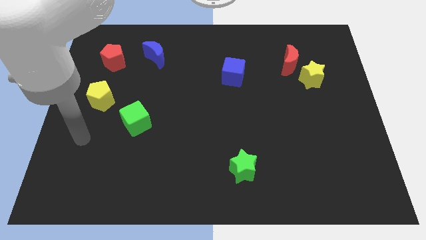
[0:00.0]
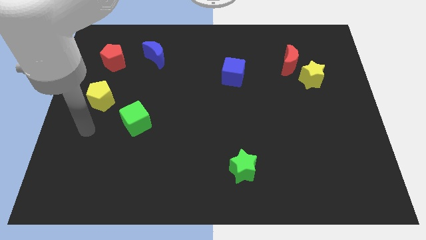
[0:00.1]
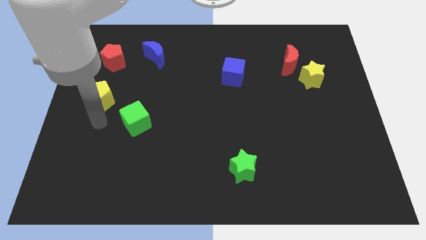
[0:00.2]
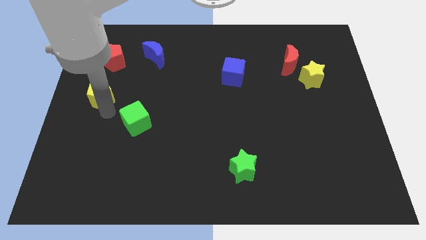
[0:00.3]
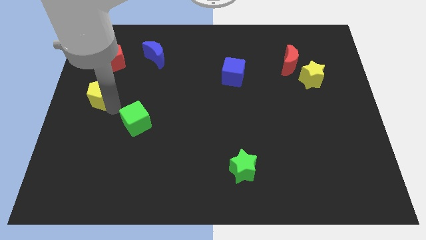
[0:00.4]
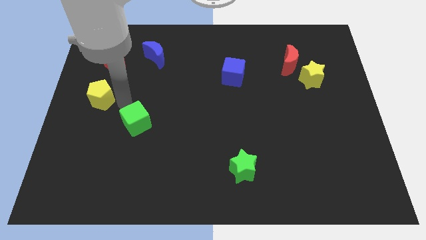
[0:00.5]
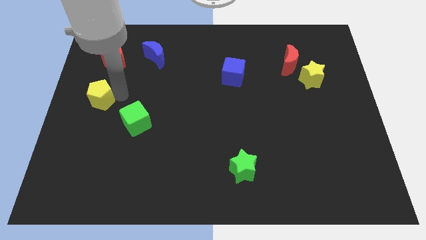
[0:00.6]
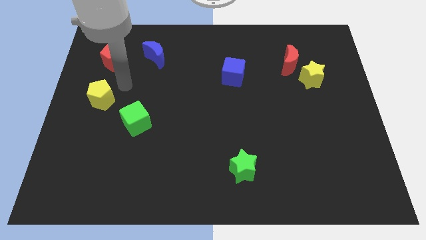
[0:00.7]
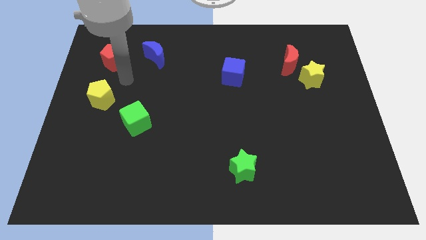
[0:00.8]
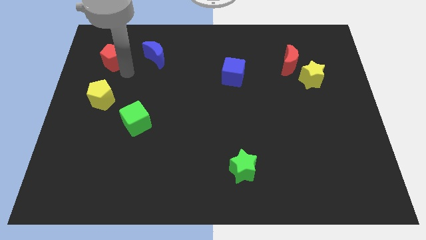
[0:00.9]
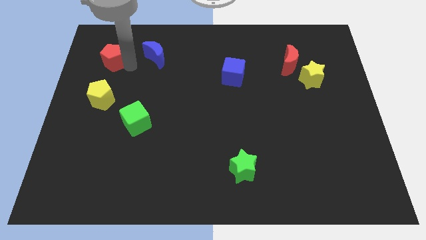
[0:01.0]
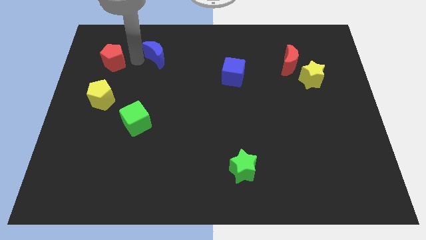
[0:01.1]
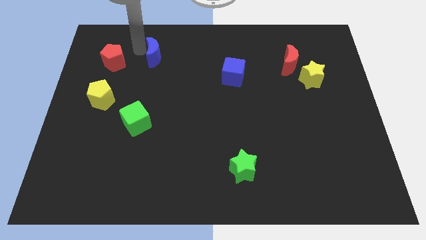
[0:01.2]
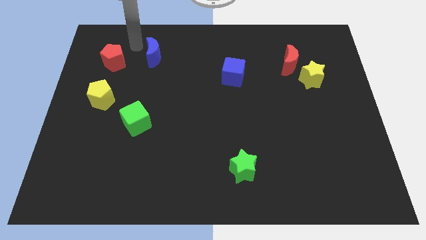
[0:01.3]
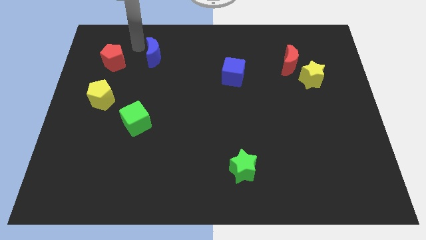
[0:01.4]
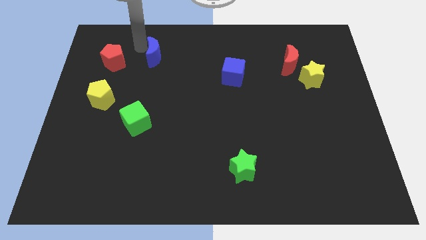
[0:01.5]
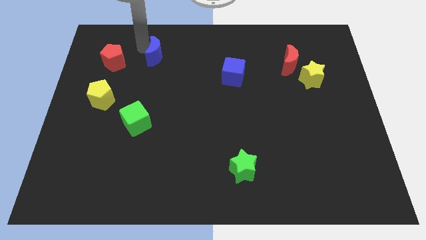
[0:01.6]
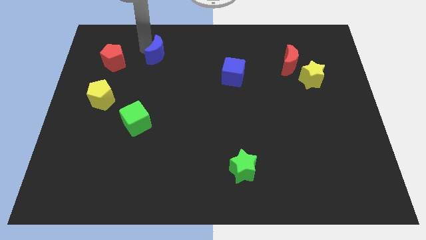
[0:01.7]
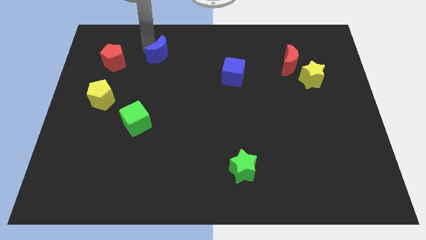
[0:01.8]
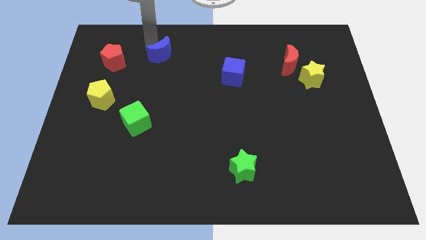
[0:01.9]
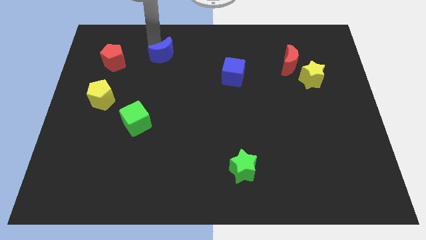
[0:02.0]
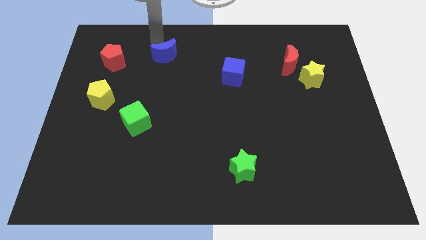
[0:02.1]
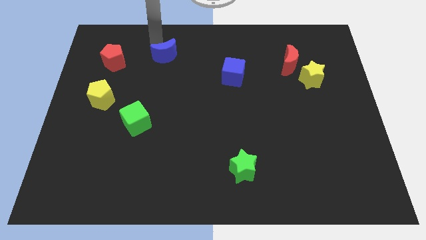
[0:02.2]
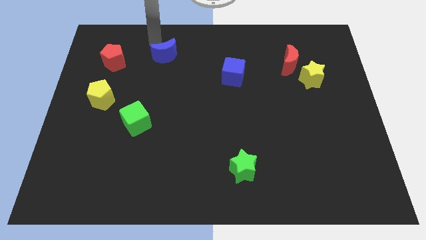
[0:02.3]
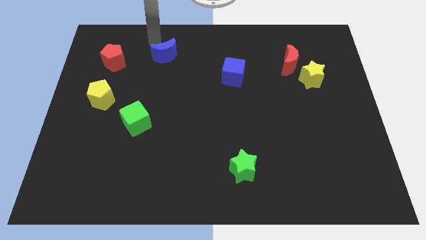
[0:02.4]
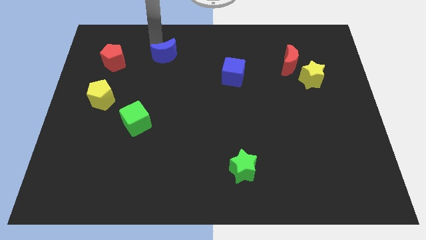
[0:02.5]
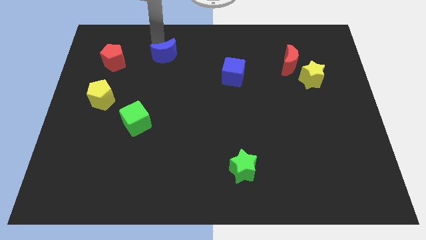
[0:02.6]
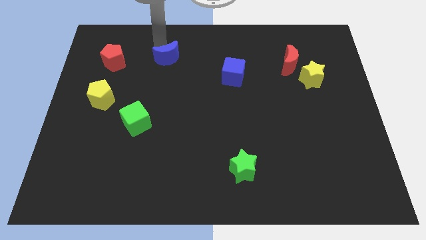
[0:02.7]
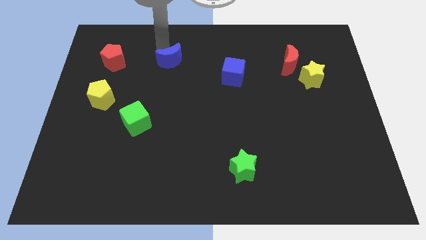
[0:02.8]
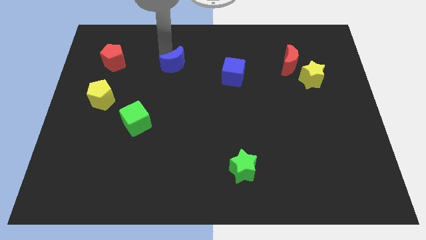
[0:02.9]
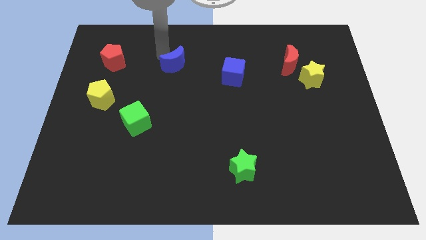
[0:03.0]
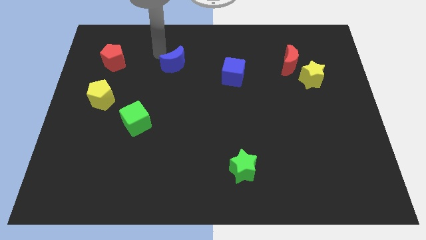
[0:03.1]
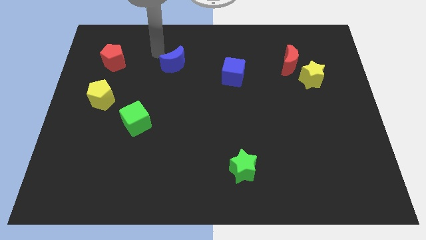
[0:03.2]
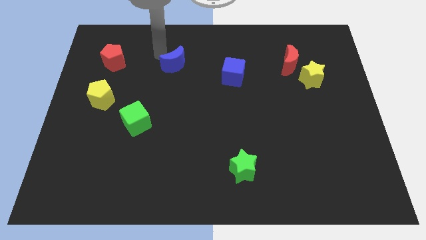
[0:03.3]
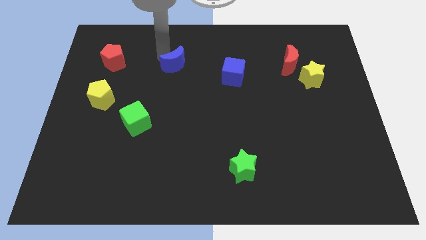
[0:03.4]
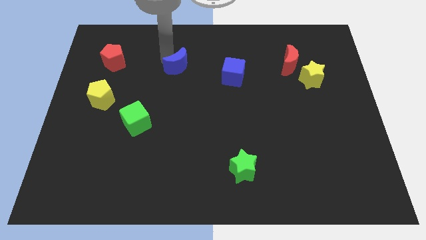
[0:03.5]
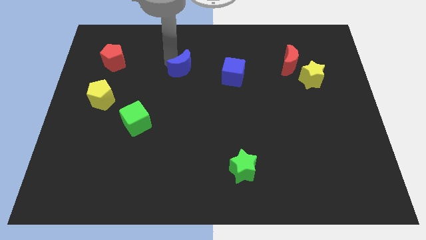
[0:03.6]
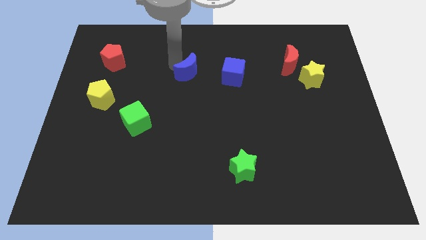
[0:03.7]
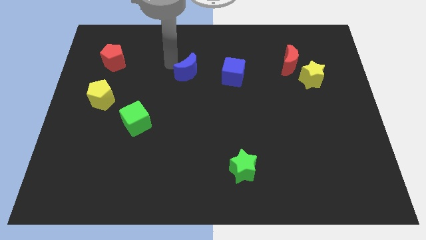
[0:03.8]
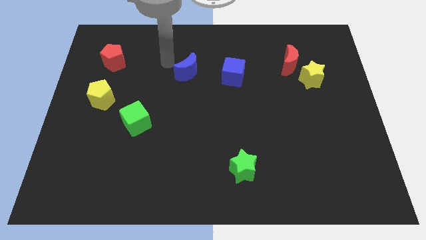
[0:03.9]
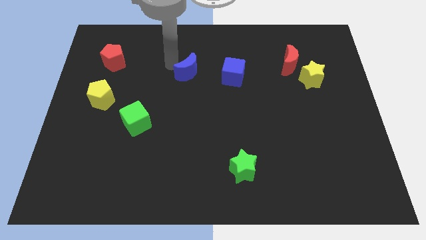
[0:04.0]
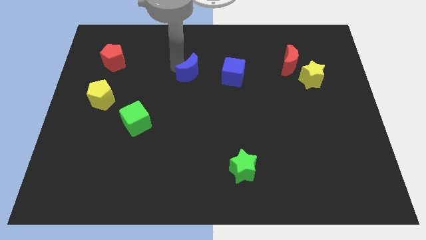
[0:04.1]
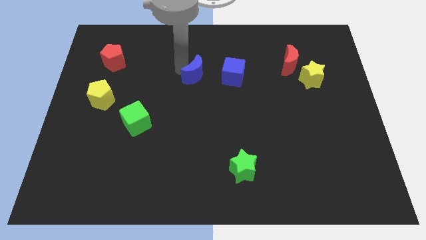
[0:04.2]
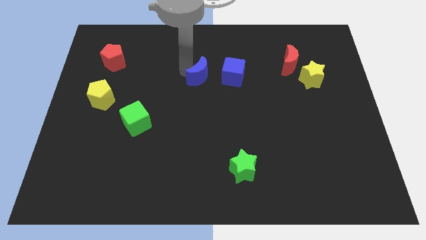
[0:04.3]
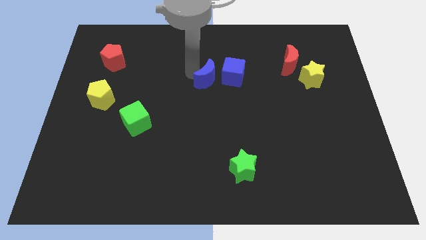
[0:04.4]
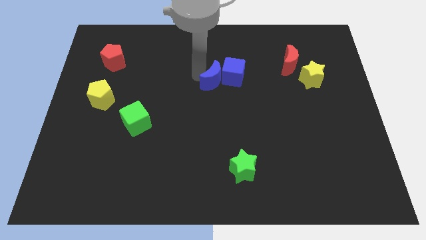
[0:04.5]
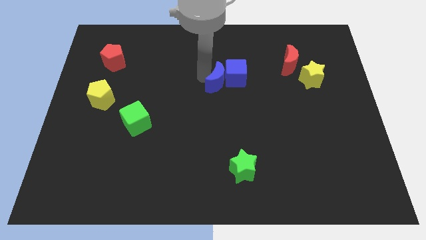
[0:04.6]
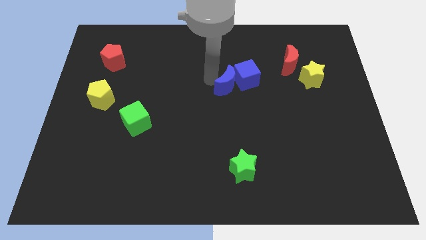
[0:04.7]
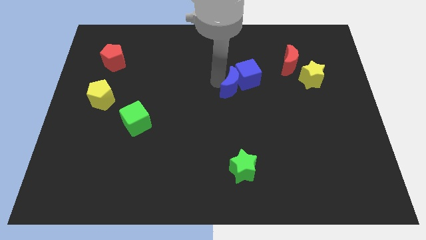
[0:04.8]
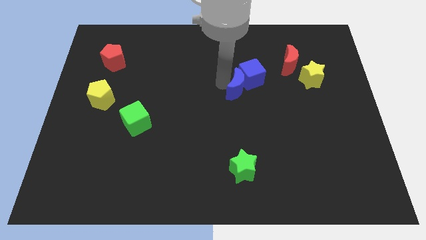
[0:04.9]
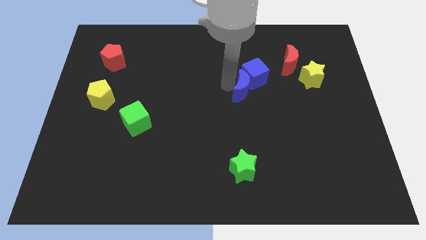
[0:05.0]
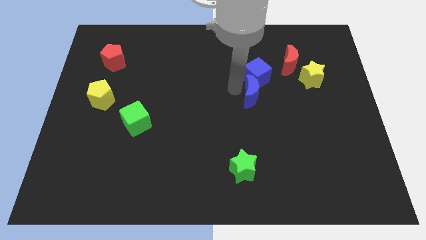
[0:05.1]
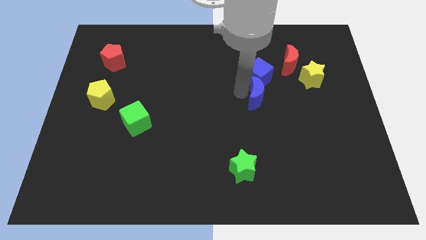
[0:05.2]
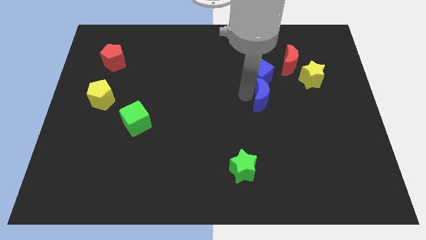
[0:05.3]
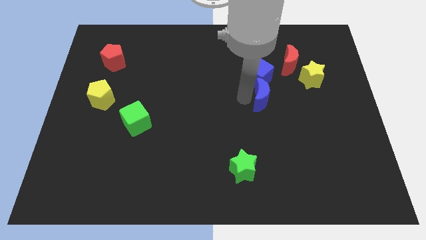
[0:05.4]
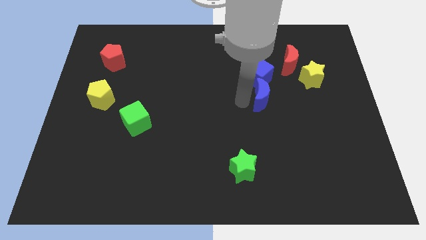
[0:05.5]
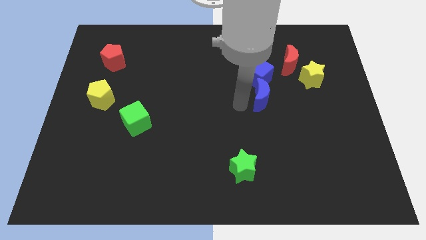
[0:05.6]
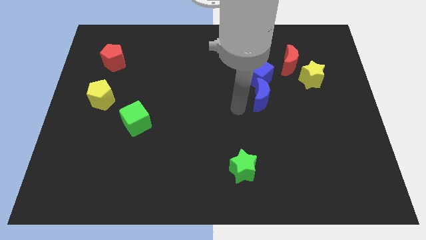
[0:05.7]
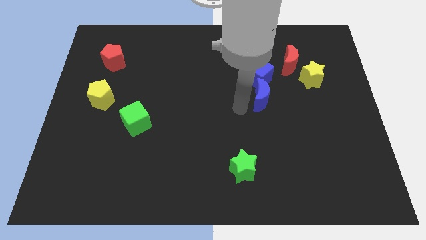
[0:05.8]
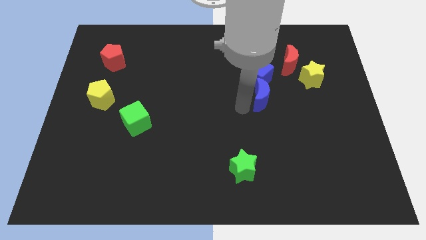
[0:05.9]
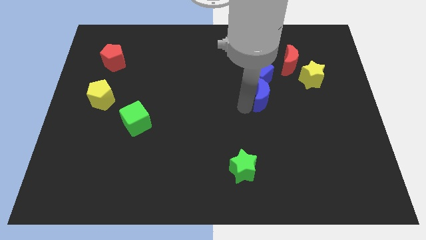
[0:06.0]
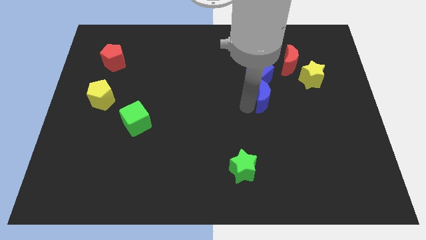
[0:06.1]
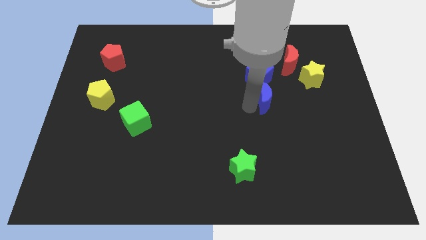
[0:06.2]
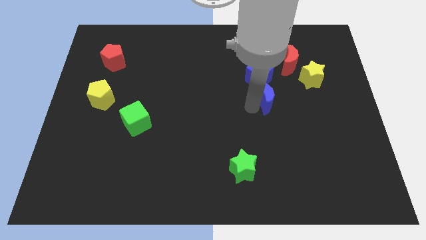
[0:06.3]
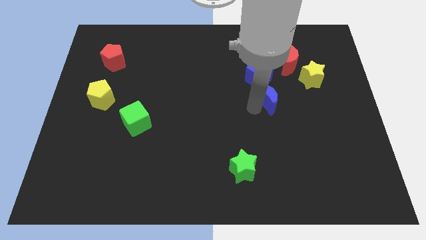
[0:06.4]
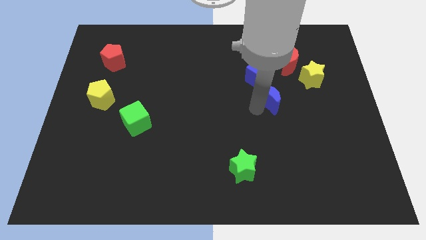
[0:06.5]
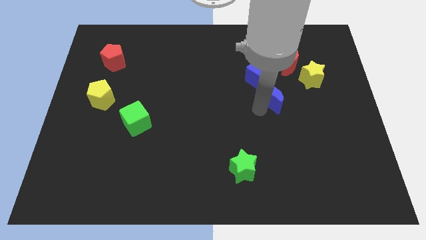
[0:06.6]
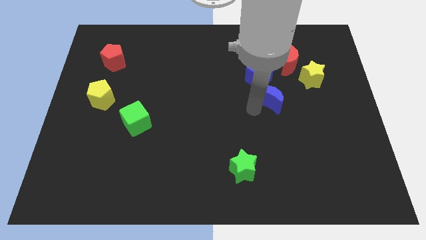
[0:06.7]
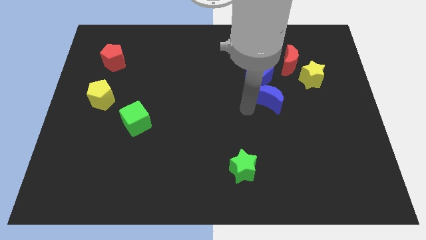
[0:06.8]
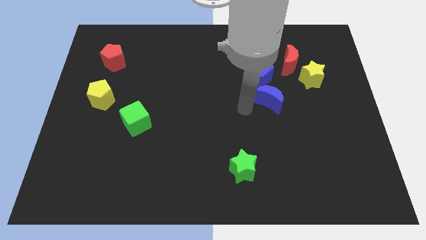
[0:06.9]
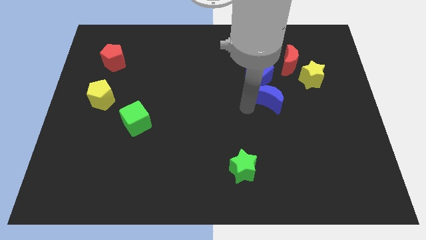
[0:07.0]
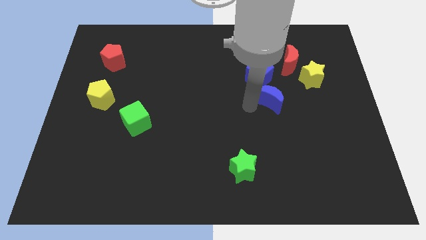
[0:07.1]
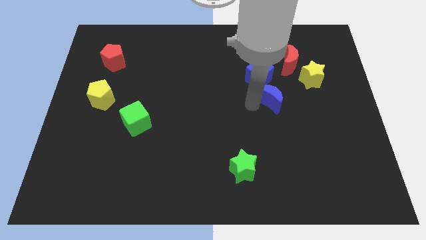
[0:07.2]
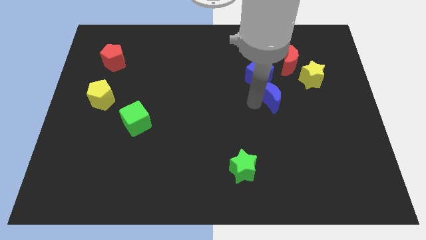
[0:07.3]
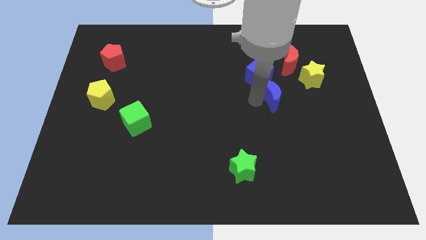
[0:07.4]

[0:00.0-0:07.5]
push the blue moon to the bottom left side of the yellow star
